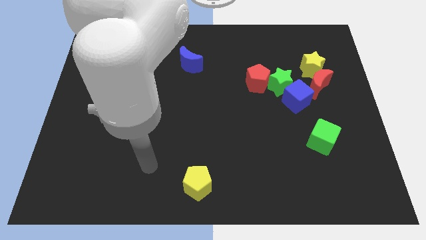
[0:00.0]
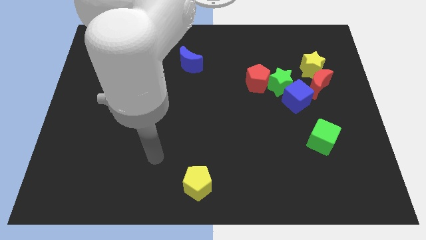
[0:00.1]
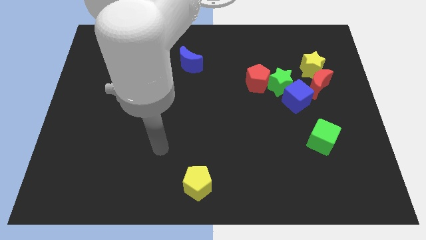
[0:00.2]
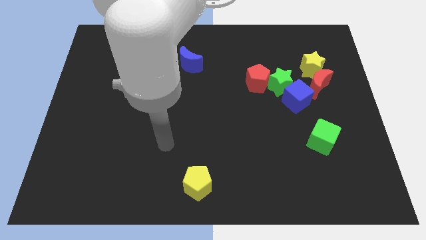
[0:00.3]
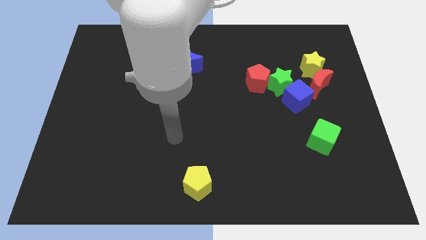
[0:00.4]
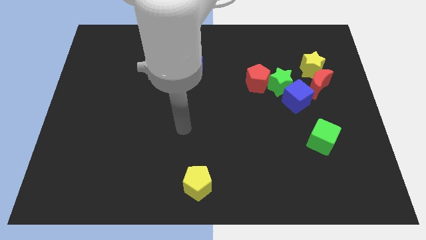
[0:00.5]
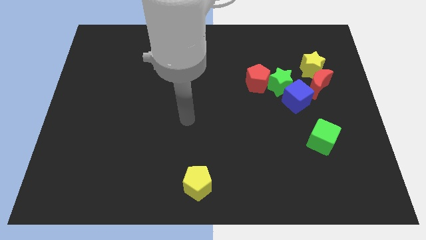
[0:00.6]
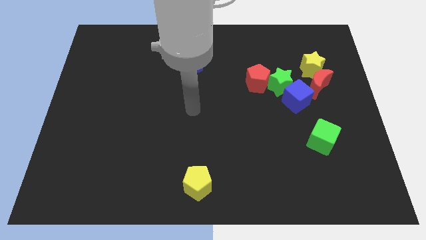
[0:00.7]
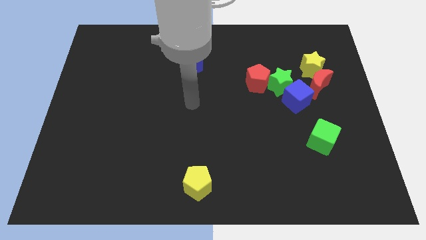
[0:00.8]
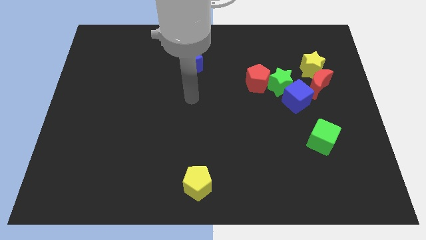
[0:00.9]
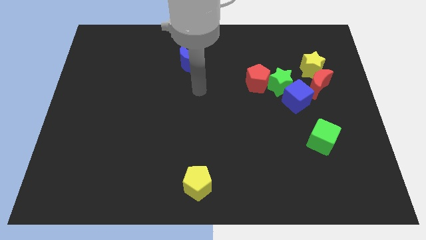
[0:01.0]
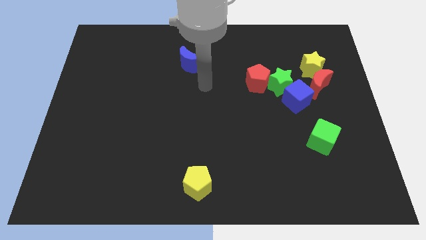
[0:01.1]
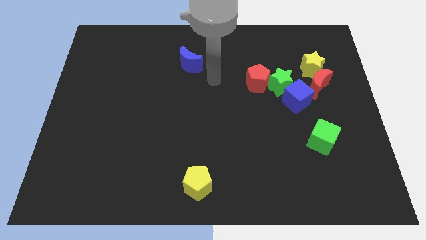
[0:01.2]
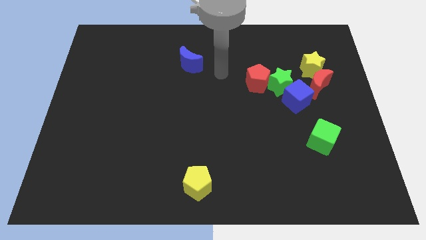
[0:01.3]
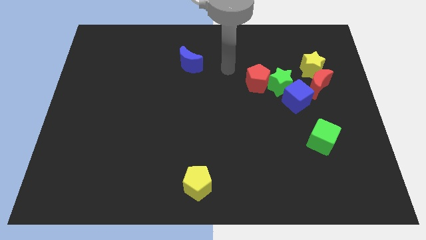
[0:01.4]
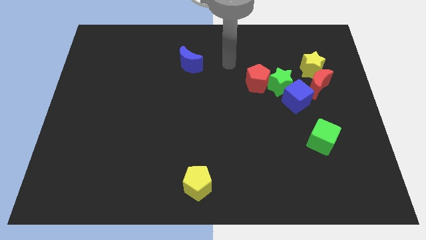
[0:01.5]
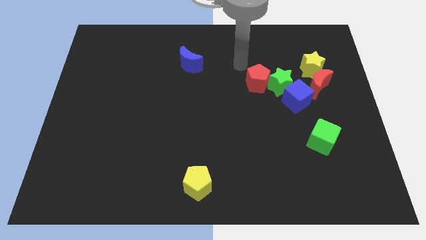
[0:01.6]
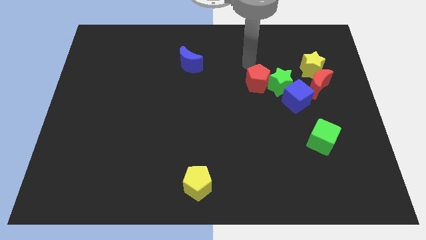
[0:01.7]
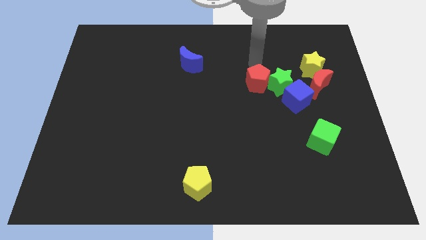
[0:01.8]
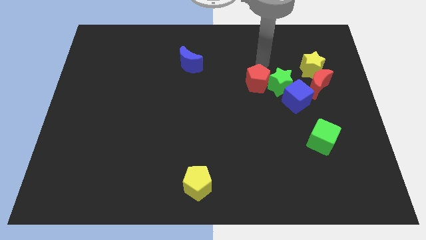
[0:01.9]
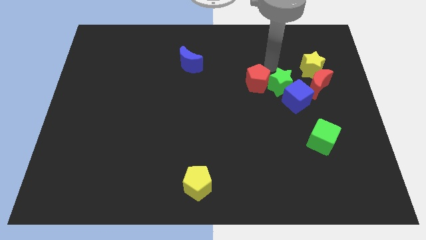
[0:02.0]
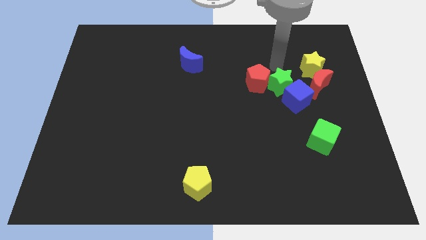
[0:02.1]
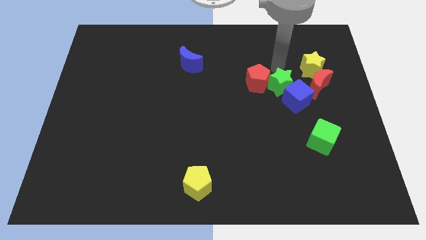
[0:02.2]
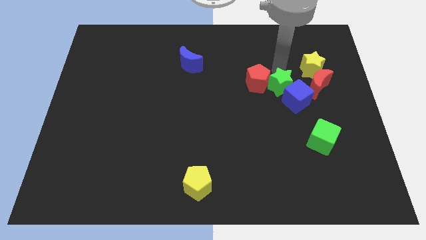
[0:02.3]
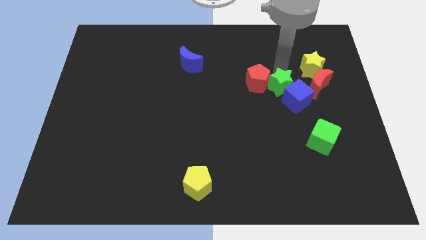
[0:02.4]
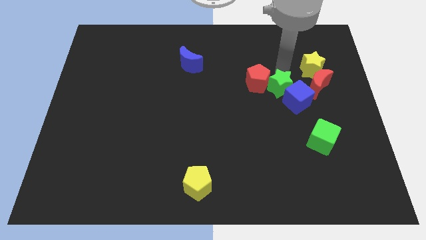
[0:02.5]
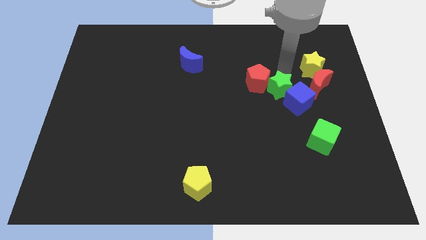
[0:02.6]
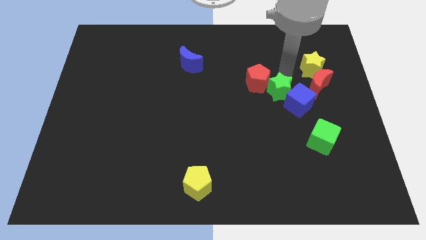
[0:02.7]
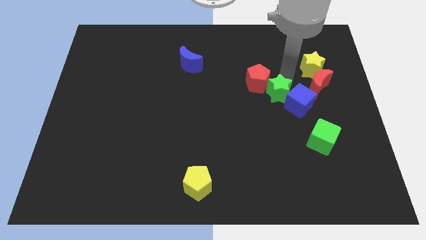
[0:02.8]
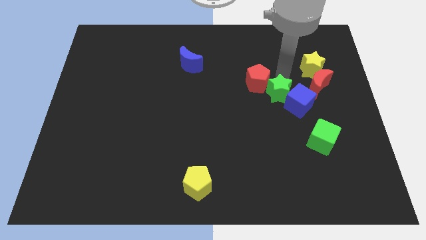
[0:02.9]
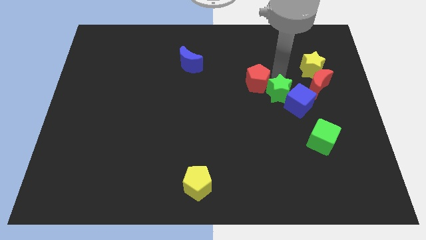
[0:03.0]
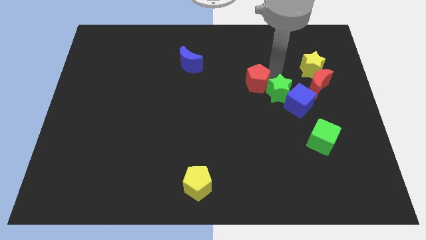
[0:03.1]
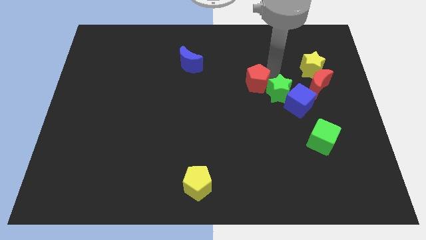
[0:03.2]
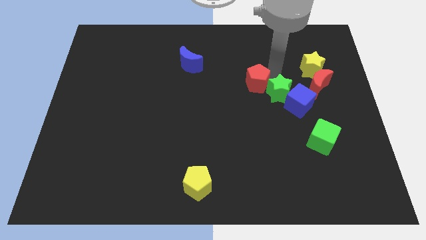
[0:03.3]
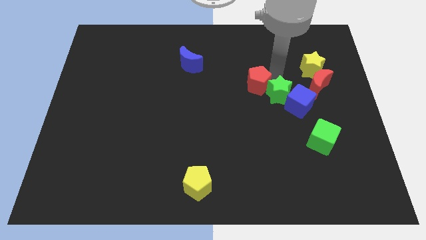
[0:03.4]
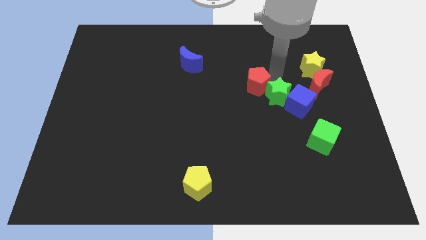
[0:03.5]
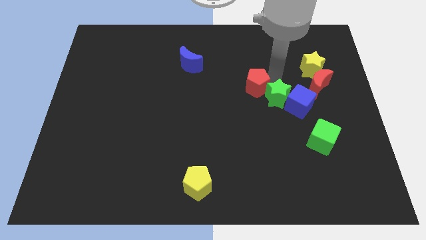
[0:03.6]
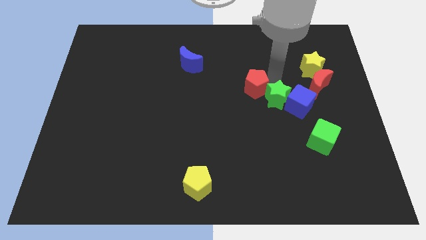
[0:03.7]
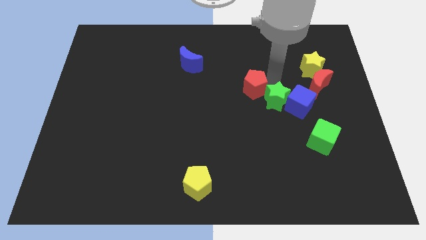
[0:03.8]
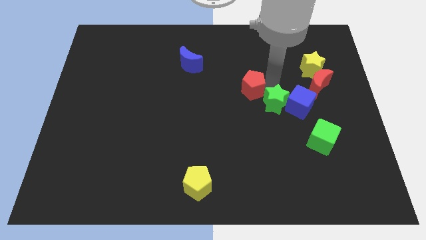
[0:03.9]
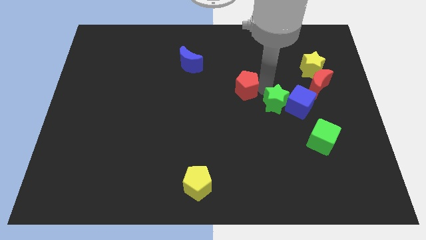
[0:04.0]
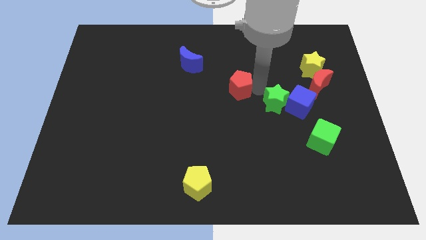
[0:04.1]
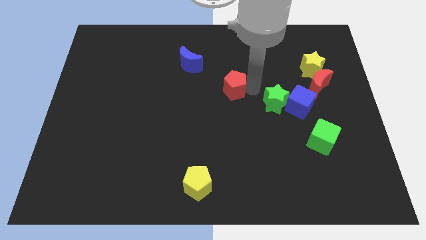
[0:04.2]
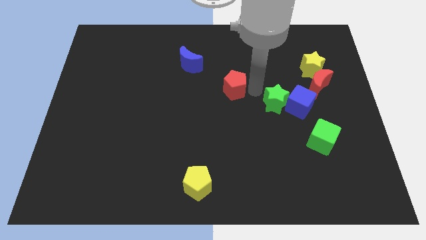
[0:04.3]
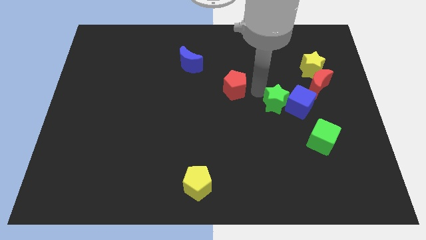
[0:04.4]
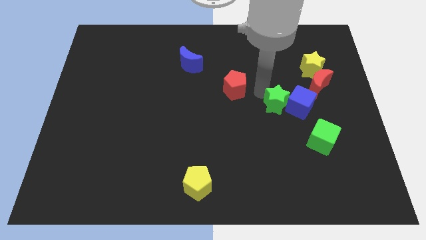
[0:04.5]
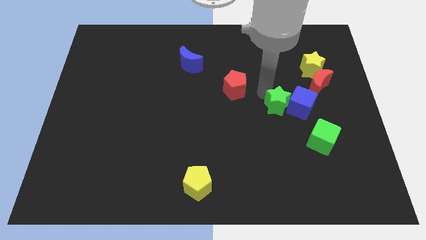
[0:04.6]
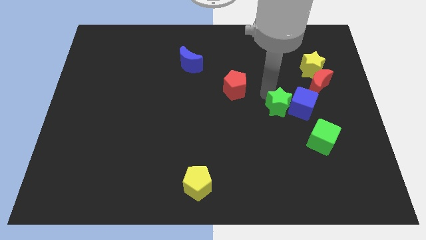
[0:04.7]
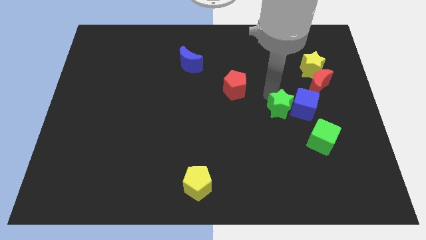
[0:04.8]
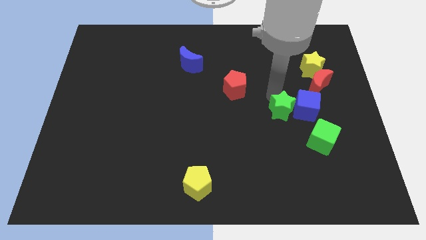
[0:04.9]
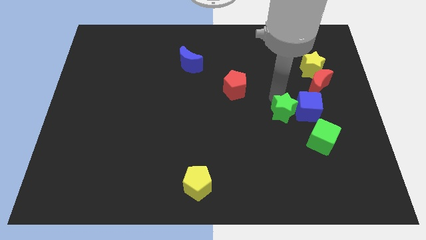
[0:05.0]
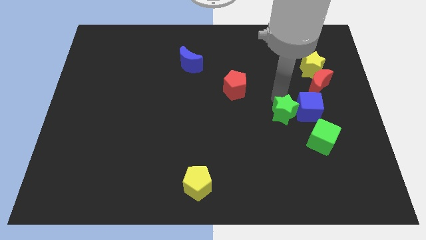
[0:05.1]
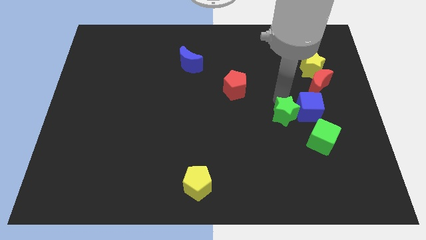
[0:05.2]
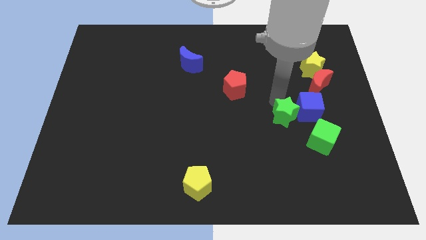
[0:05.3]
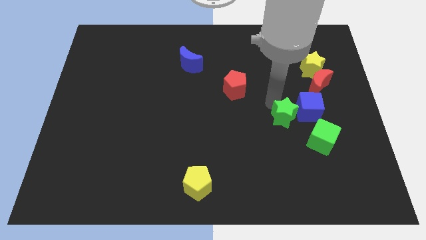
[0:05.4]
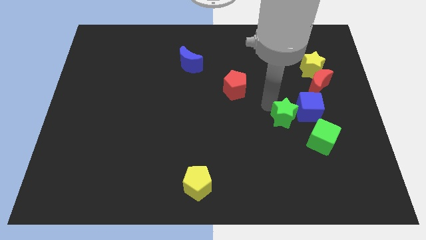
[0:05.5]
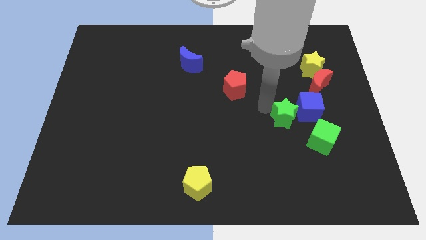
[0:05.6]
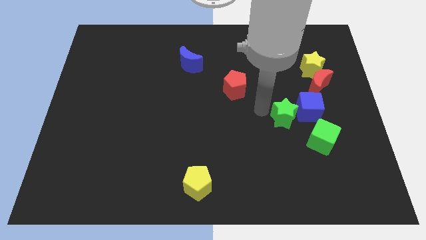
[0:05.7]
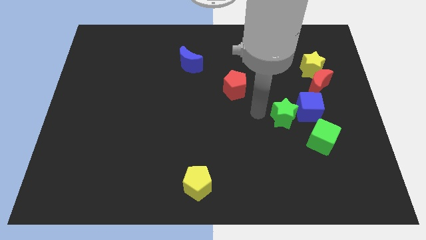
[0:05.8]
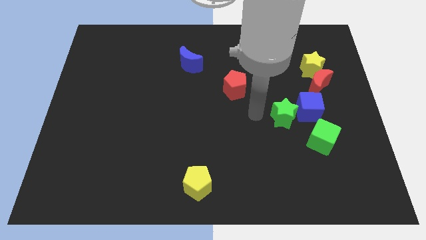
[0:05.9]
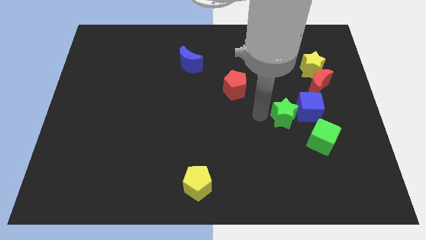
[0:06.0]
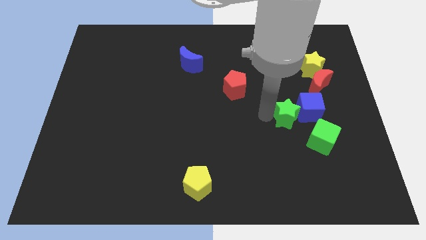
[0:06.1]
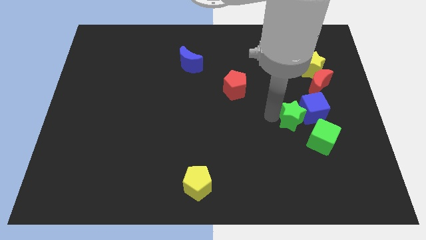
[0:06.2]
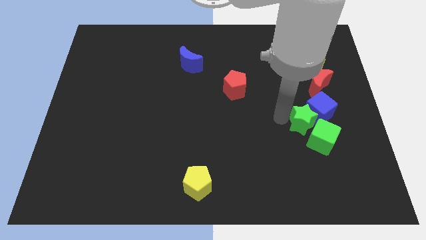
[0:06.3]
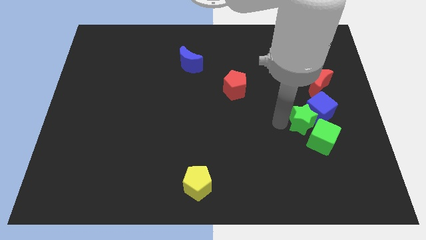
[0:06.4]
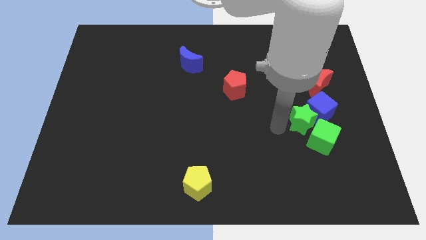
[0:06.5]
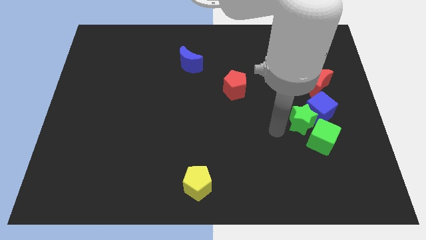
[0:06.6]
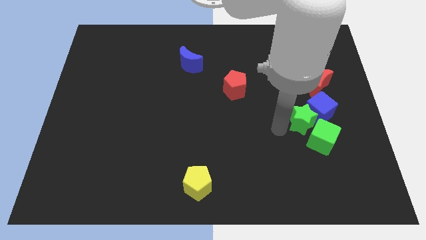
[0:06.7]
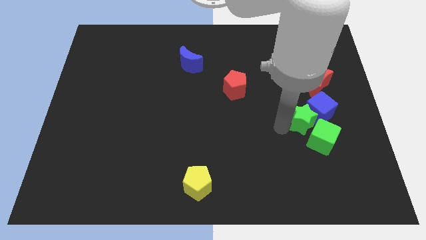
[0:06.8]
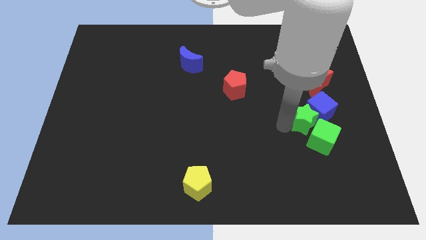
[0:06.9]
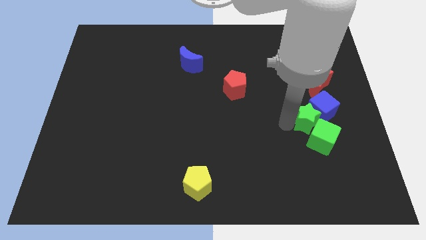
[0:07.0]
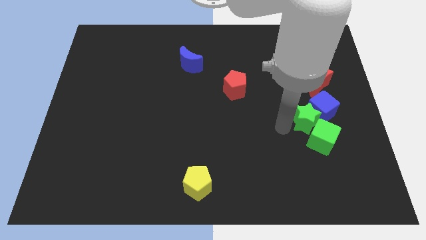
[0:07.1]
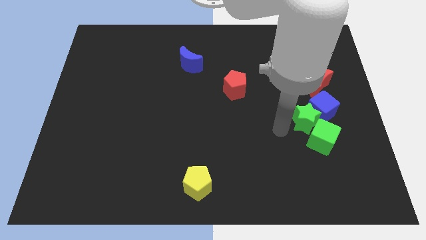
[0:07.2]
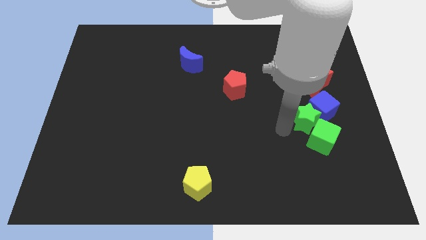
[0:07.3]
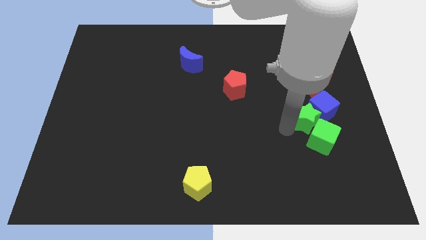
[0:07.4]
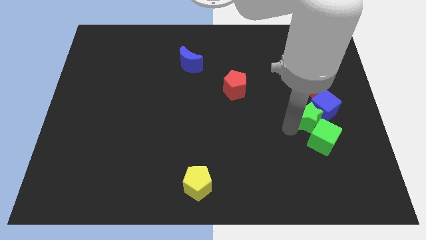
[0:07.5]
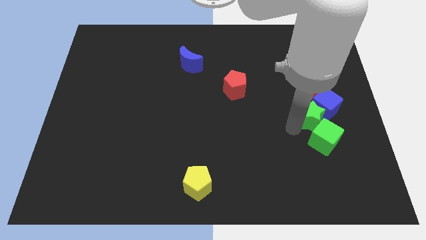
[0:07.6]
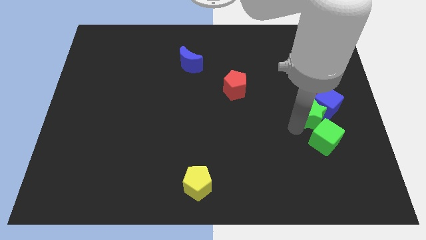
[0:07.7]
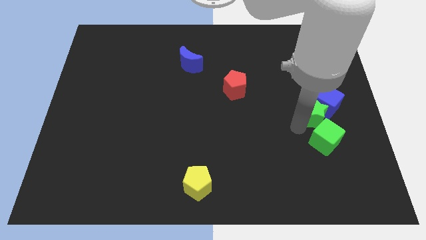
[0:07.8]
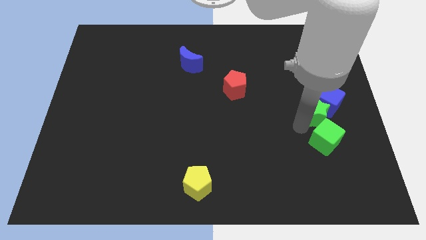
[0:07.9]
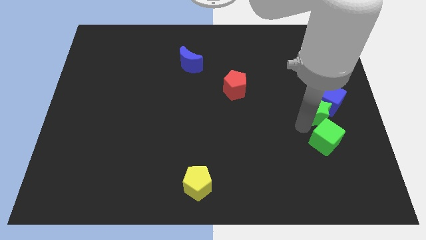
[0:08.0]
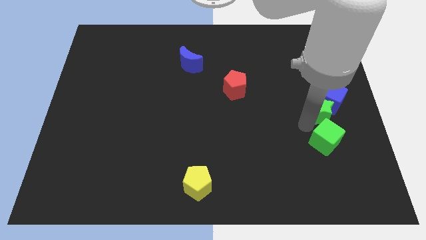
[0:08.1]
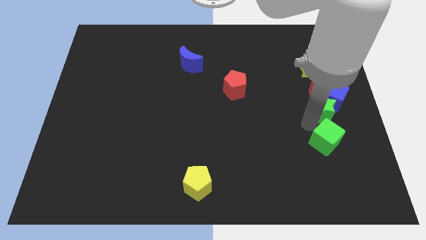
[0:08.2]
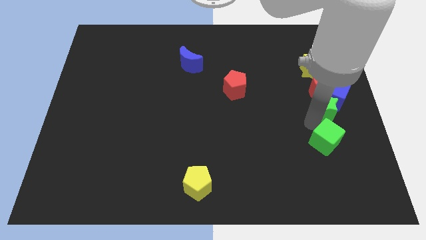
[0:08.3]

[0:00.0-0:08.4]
slide the green star to the right side of the board
